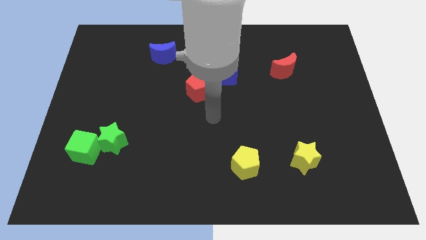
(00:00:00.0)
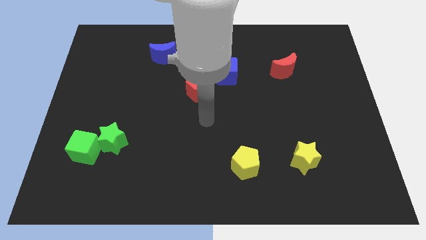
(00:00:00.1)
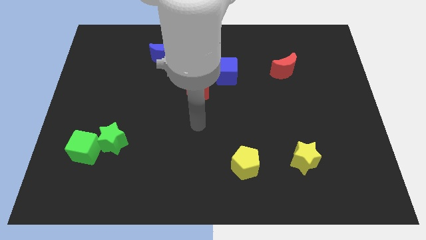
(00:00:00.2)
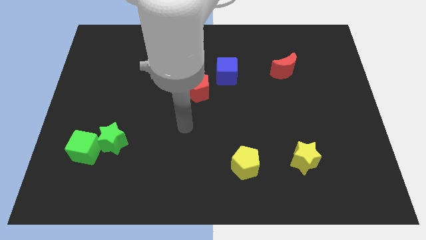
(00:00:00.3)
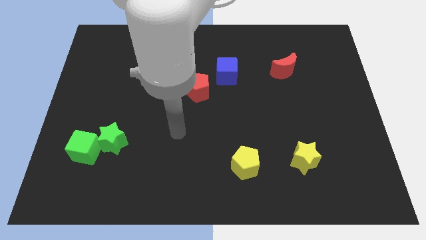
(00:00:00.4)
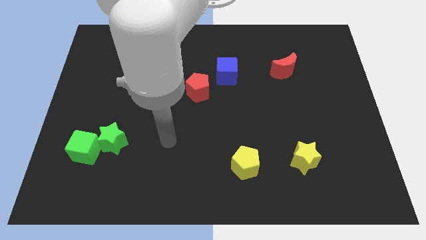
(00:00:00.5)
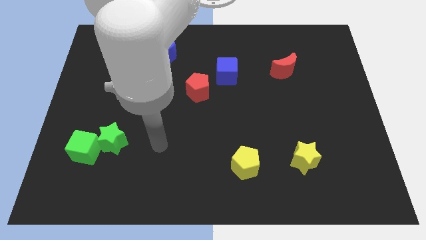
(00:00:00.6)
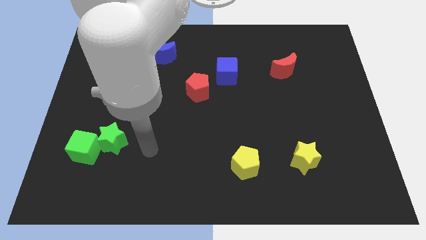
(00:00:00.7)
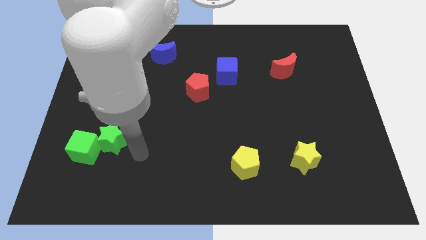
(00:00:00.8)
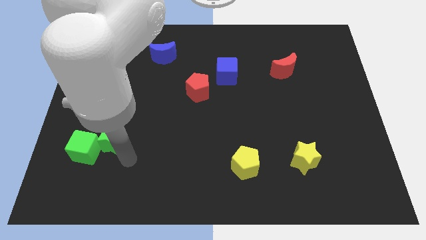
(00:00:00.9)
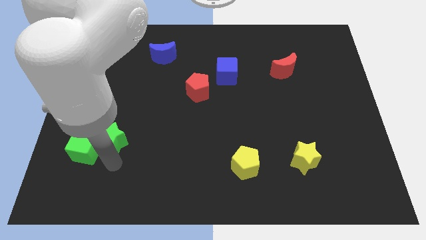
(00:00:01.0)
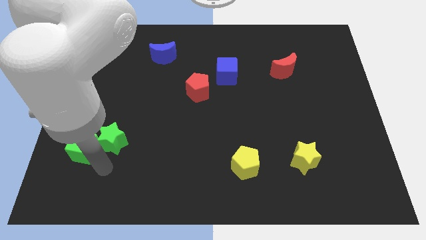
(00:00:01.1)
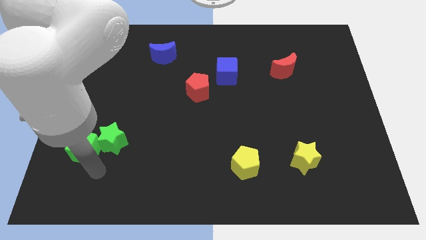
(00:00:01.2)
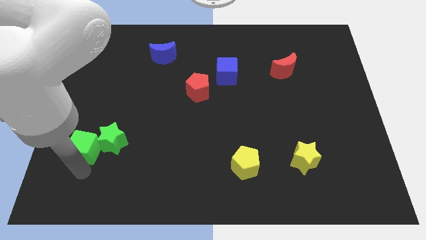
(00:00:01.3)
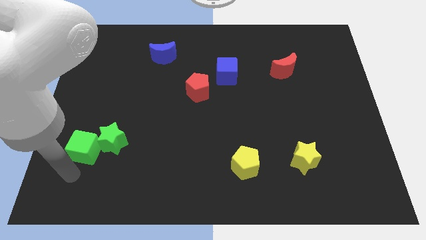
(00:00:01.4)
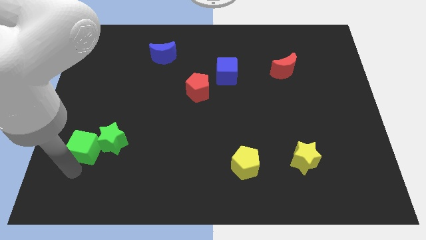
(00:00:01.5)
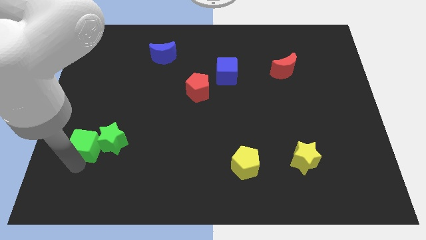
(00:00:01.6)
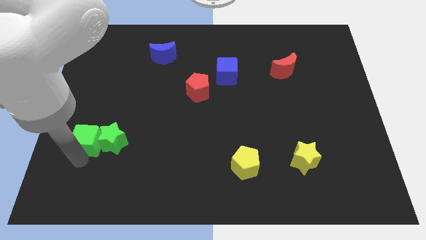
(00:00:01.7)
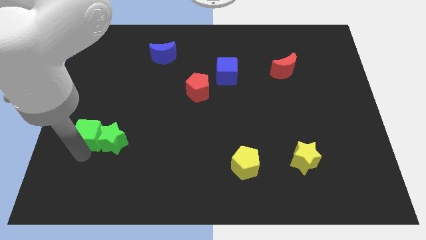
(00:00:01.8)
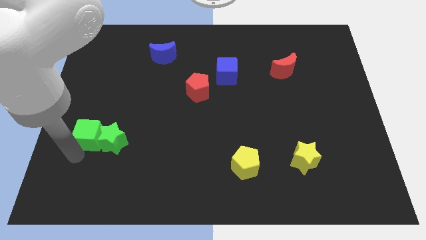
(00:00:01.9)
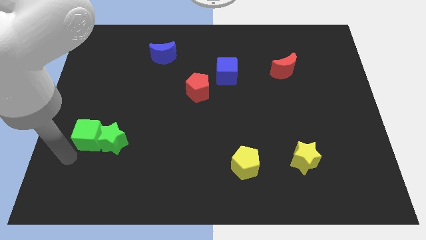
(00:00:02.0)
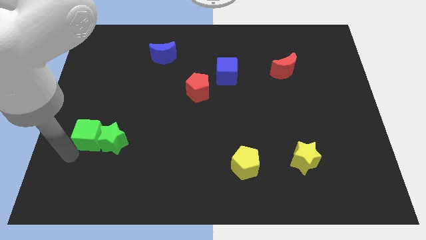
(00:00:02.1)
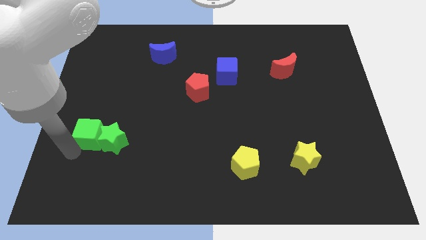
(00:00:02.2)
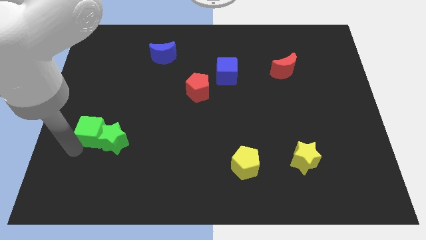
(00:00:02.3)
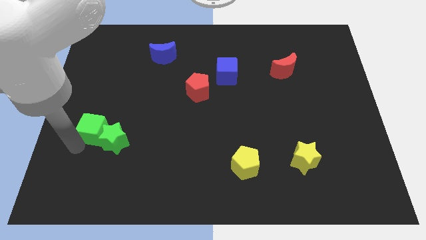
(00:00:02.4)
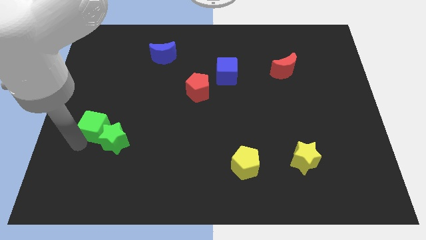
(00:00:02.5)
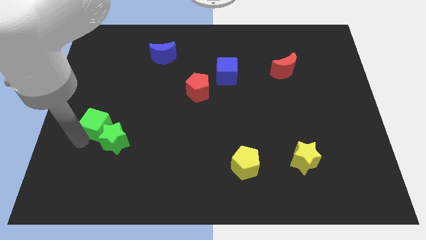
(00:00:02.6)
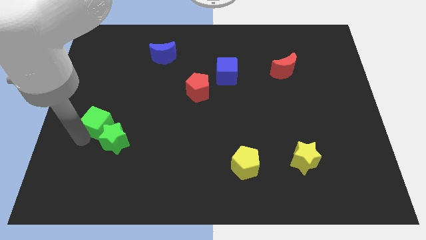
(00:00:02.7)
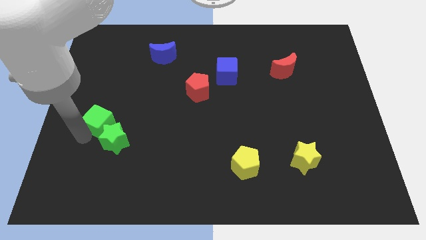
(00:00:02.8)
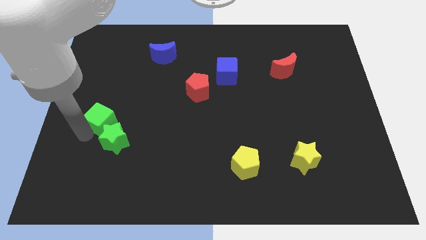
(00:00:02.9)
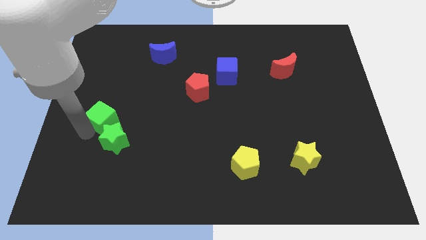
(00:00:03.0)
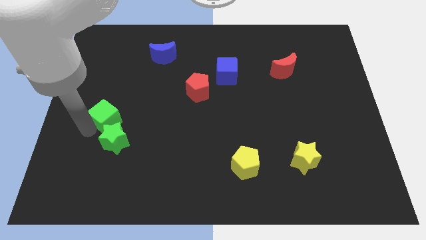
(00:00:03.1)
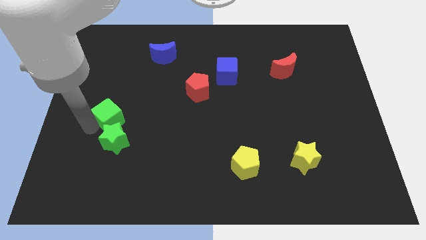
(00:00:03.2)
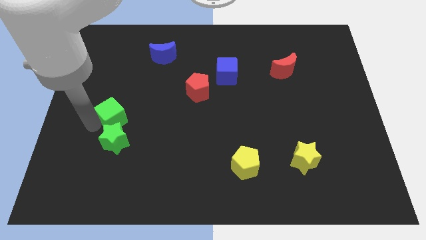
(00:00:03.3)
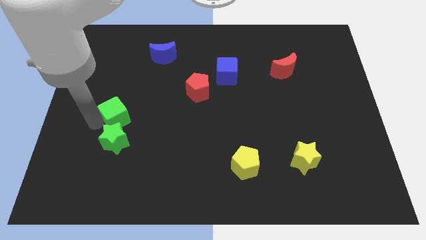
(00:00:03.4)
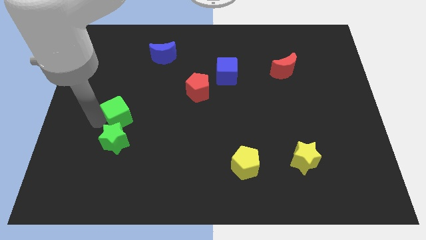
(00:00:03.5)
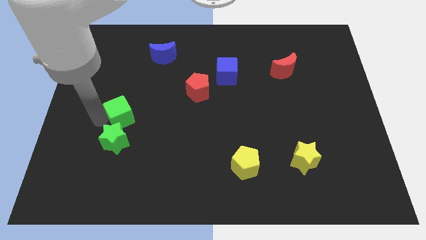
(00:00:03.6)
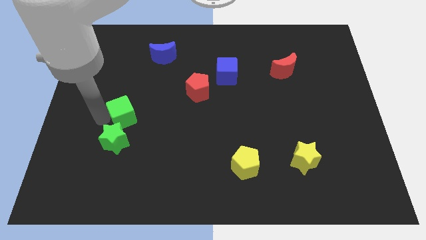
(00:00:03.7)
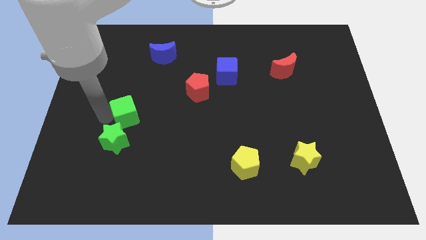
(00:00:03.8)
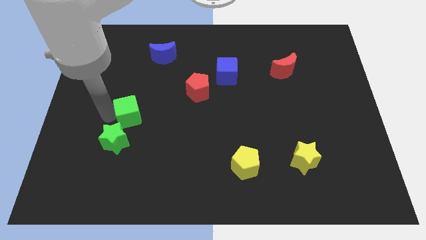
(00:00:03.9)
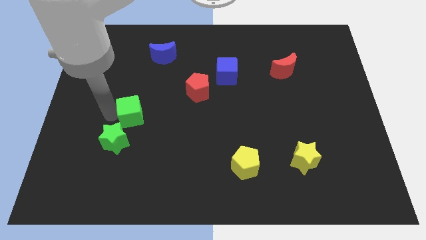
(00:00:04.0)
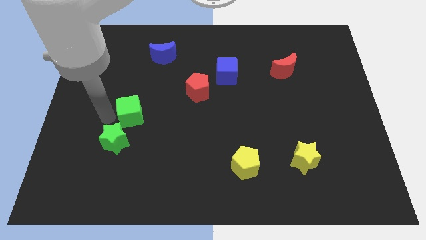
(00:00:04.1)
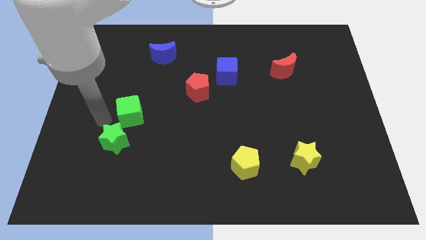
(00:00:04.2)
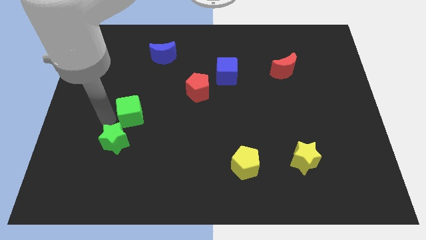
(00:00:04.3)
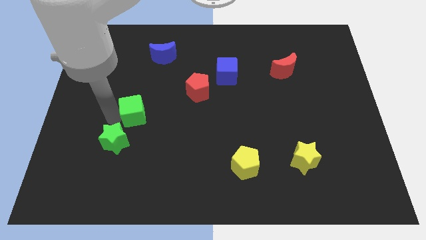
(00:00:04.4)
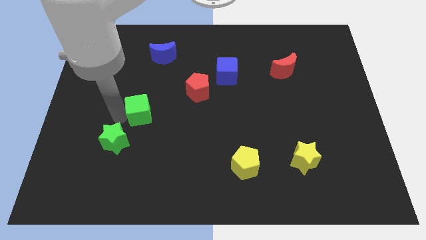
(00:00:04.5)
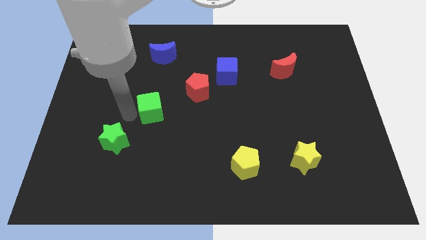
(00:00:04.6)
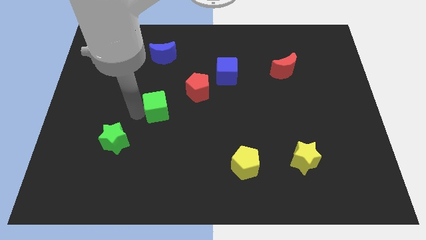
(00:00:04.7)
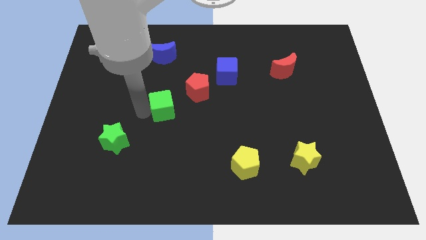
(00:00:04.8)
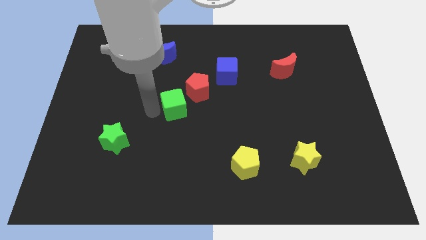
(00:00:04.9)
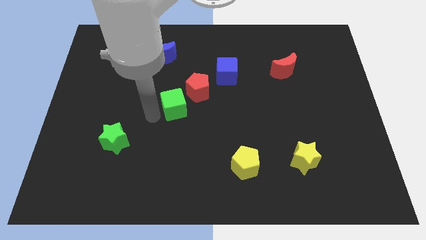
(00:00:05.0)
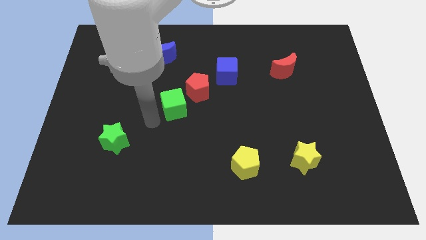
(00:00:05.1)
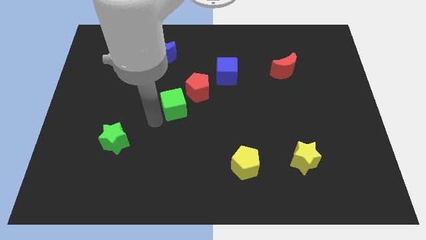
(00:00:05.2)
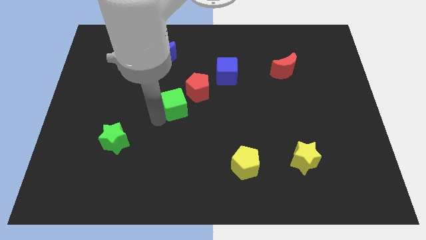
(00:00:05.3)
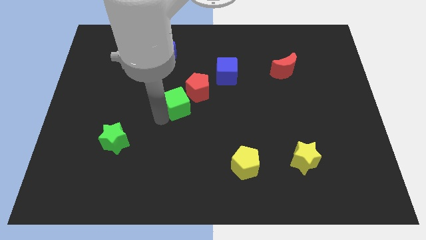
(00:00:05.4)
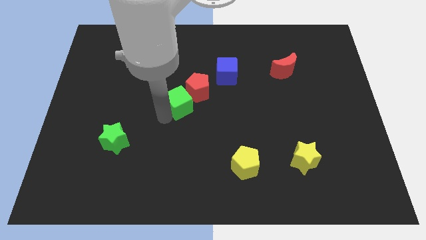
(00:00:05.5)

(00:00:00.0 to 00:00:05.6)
move the green cube towards the red pentagon

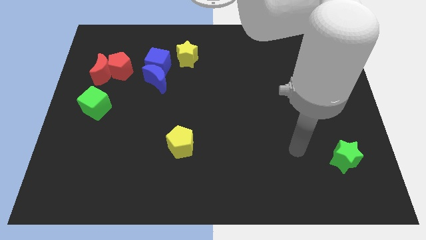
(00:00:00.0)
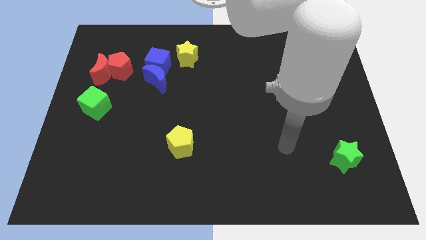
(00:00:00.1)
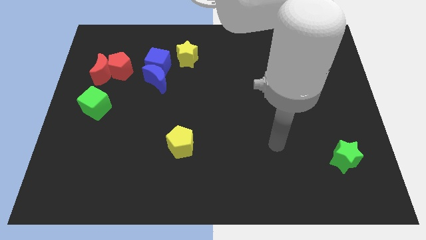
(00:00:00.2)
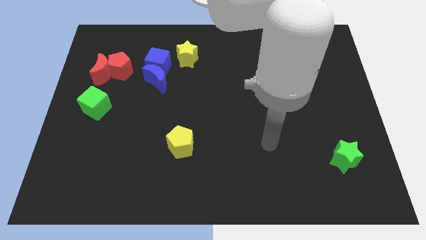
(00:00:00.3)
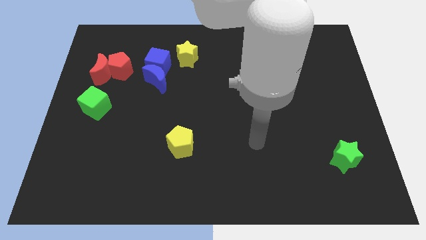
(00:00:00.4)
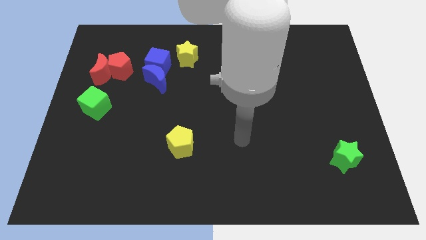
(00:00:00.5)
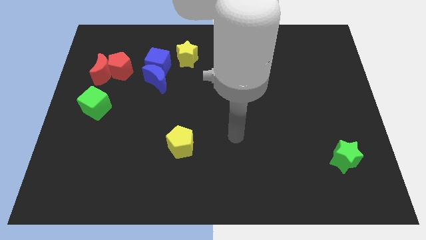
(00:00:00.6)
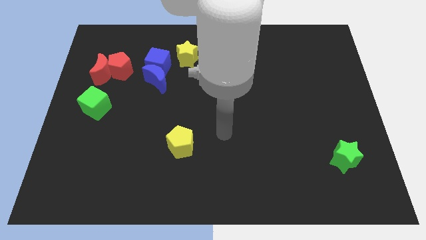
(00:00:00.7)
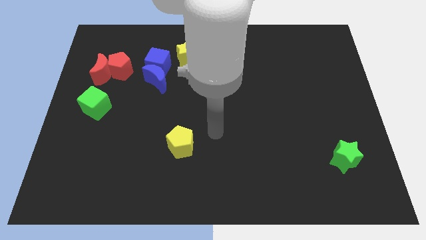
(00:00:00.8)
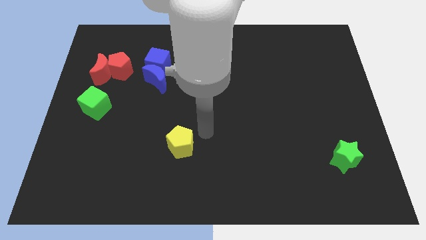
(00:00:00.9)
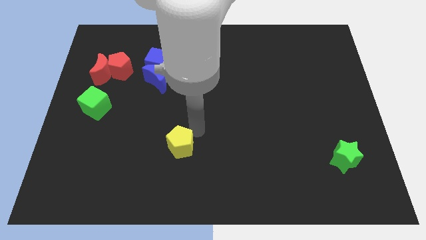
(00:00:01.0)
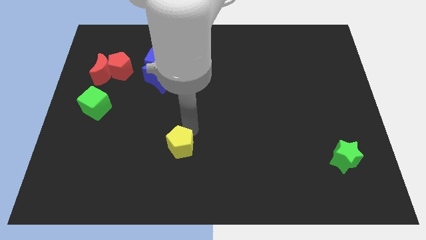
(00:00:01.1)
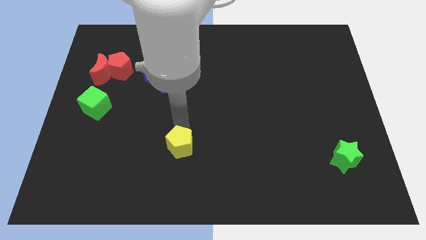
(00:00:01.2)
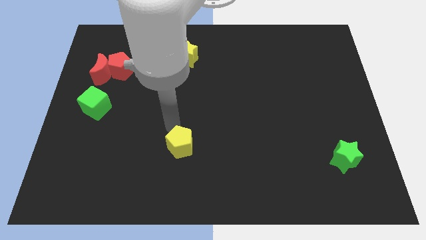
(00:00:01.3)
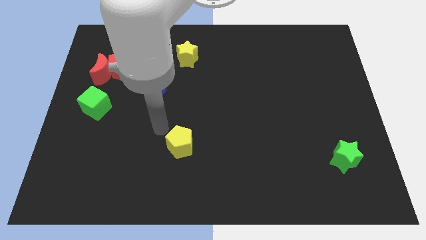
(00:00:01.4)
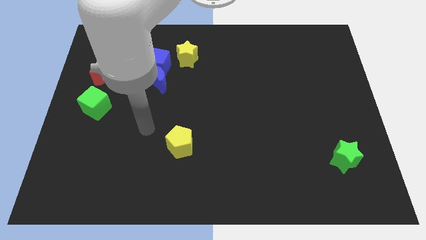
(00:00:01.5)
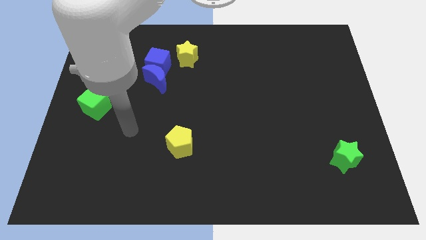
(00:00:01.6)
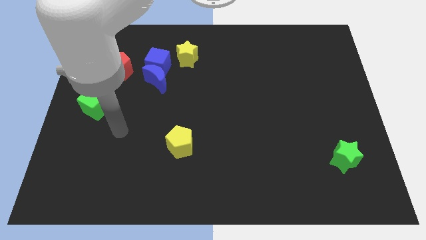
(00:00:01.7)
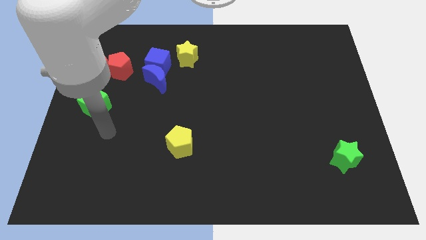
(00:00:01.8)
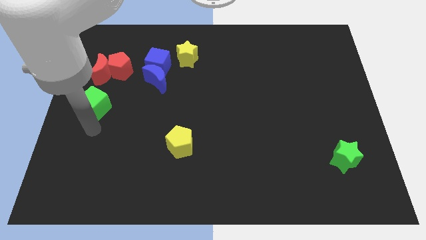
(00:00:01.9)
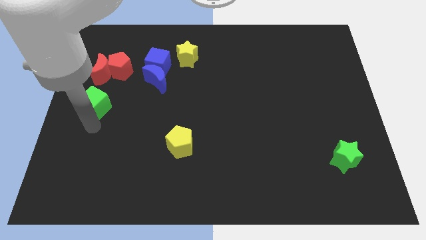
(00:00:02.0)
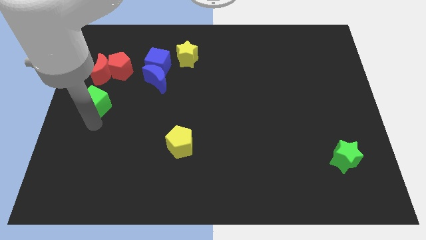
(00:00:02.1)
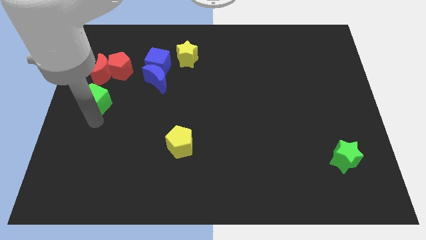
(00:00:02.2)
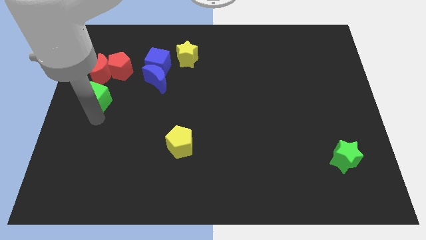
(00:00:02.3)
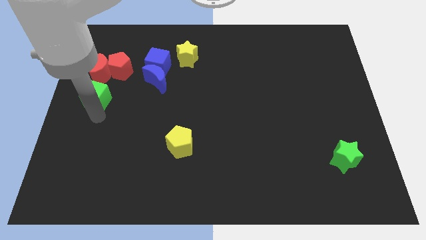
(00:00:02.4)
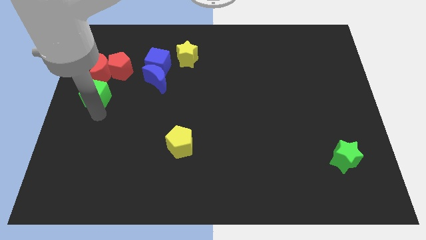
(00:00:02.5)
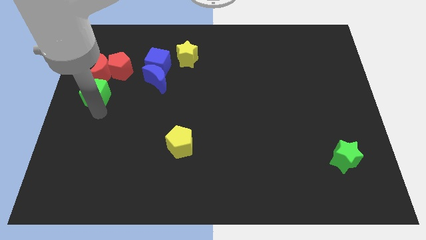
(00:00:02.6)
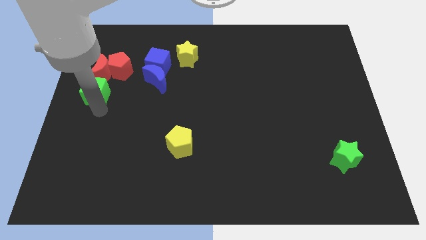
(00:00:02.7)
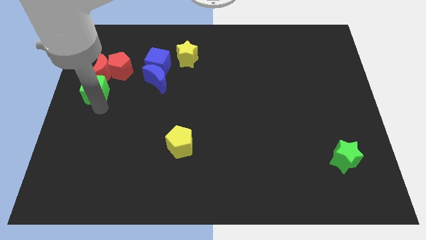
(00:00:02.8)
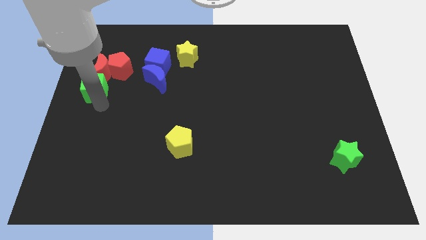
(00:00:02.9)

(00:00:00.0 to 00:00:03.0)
slide the green cube towards the red moon
